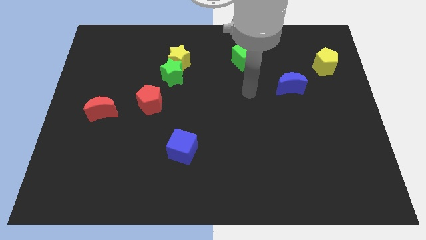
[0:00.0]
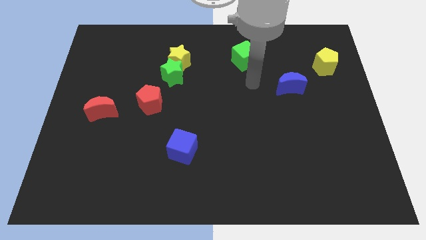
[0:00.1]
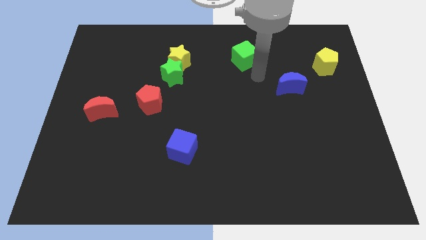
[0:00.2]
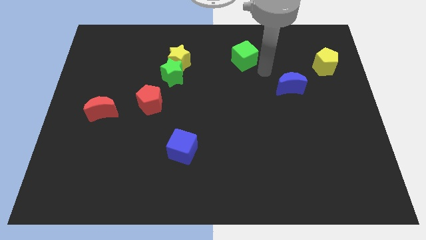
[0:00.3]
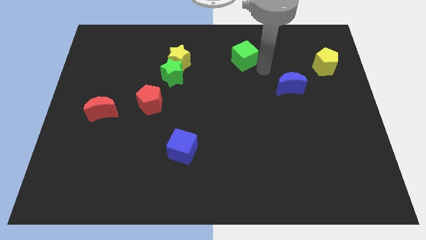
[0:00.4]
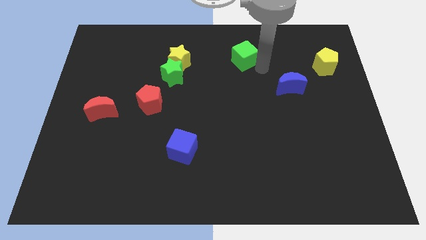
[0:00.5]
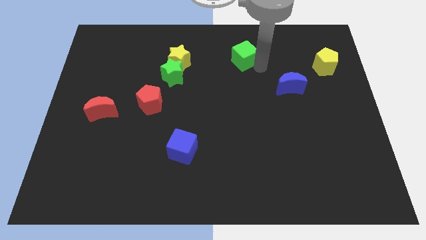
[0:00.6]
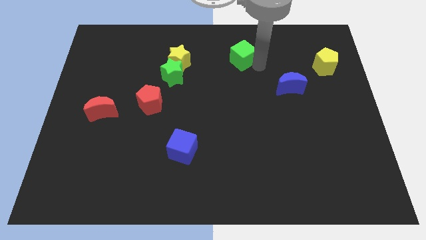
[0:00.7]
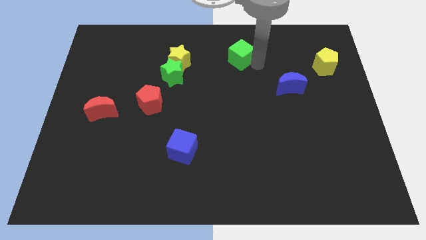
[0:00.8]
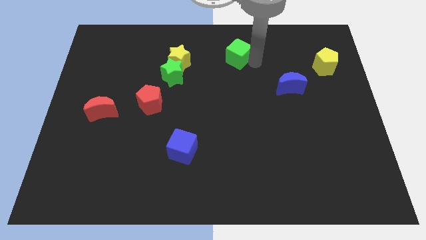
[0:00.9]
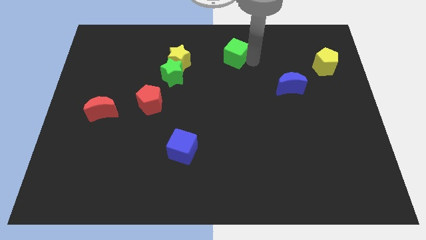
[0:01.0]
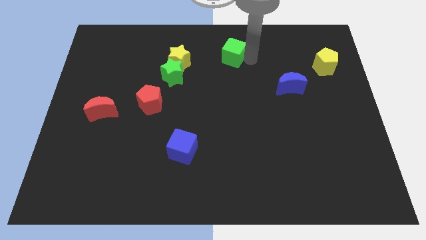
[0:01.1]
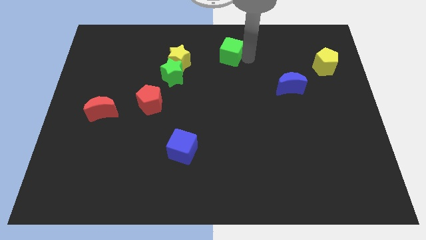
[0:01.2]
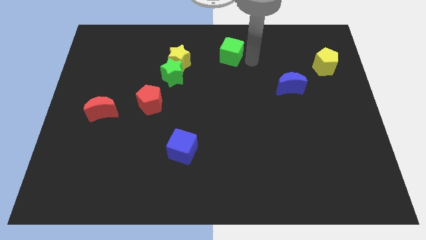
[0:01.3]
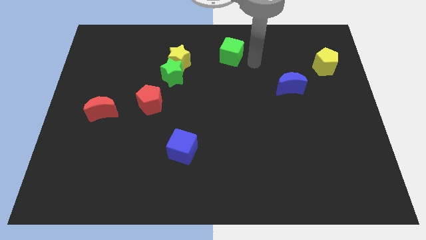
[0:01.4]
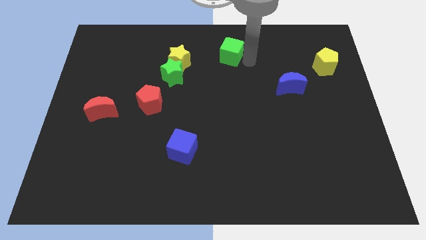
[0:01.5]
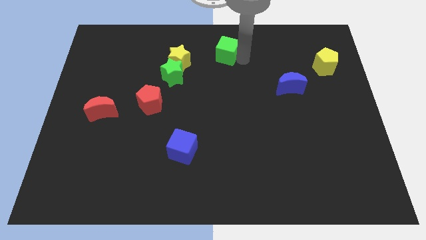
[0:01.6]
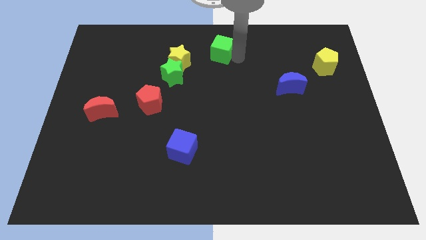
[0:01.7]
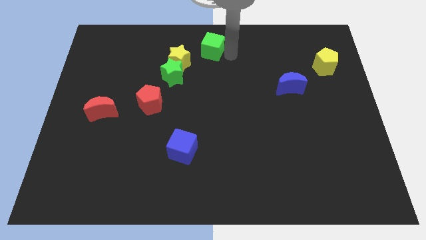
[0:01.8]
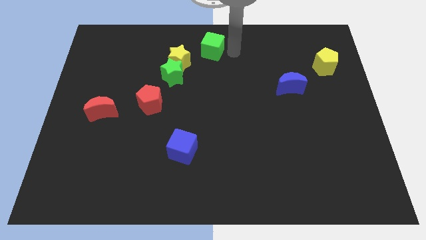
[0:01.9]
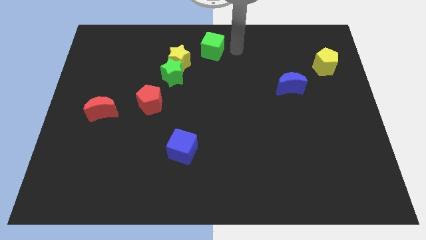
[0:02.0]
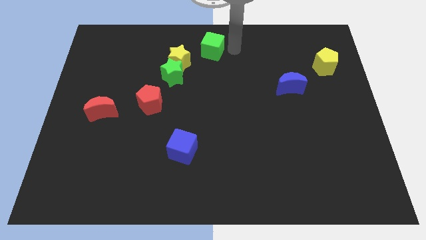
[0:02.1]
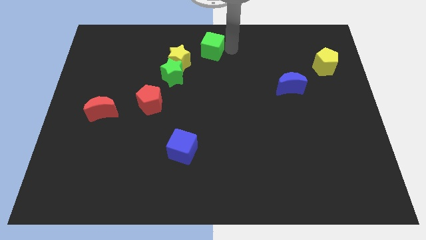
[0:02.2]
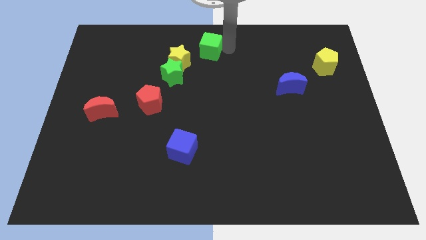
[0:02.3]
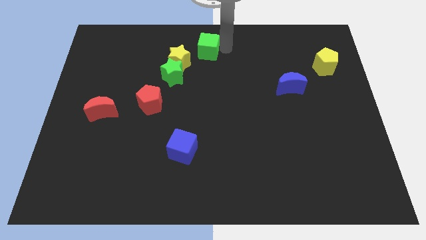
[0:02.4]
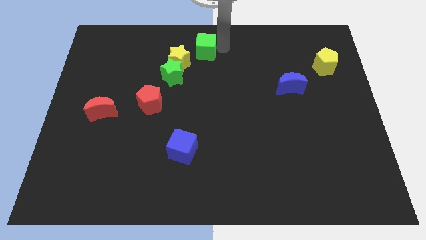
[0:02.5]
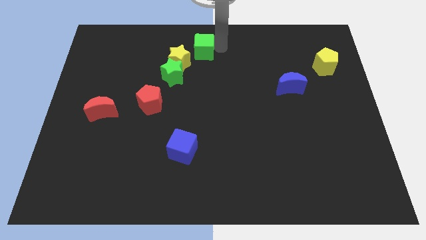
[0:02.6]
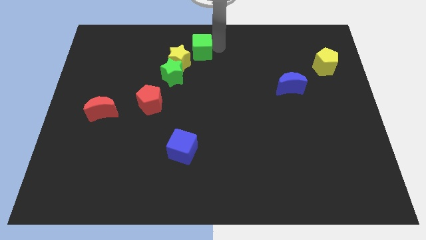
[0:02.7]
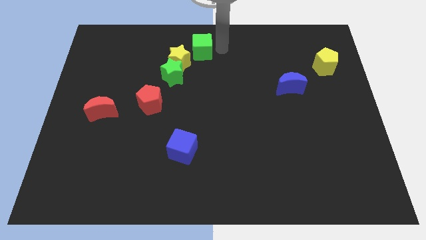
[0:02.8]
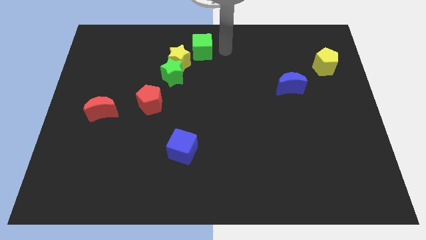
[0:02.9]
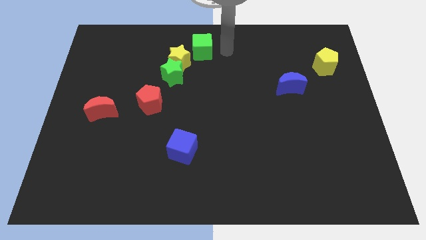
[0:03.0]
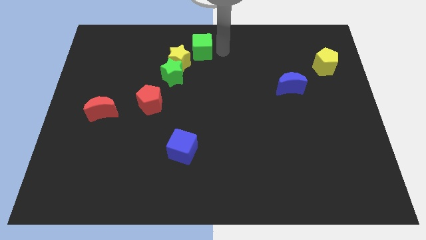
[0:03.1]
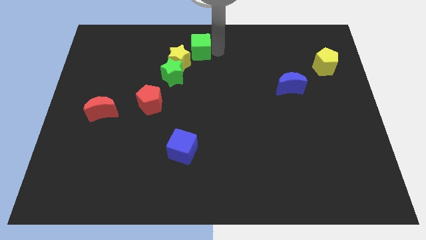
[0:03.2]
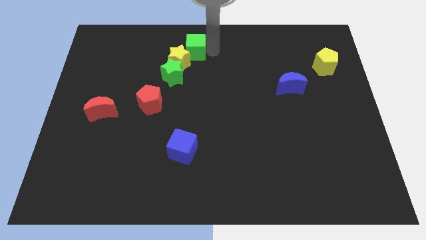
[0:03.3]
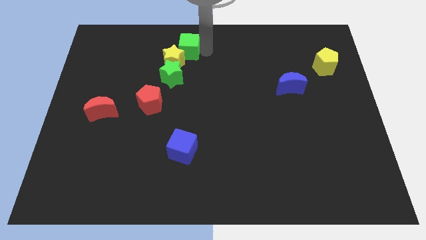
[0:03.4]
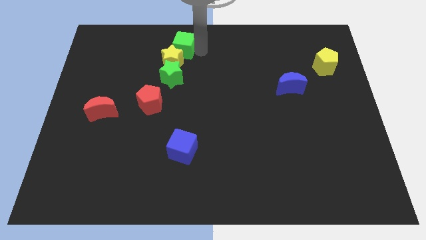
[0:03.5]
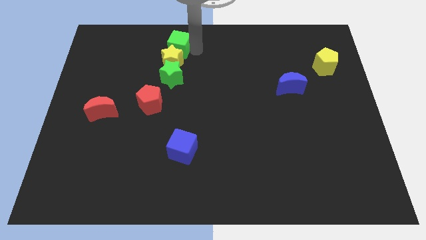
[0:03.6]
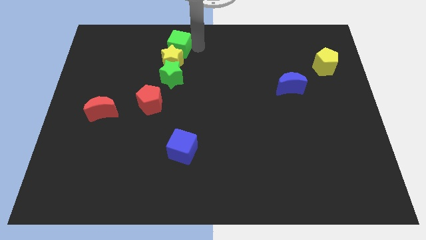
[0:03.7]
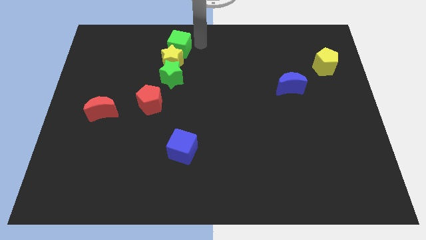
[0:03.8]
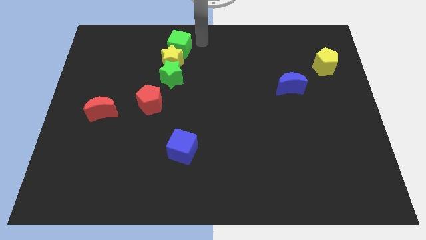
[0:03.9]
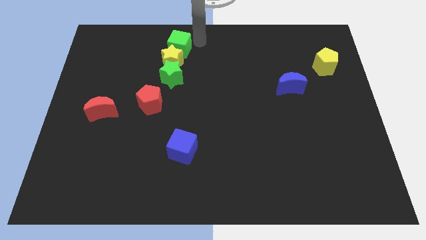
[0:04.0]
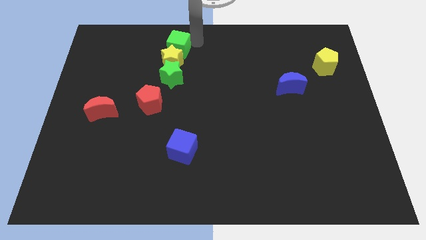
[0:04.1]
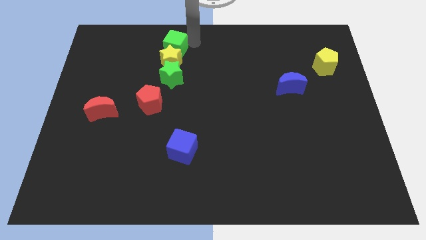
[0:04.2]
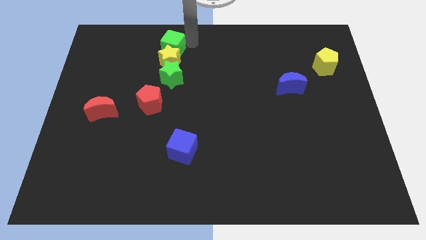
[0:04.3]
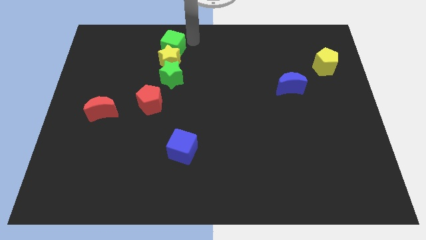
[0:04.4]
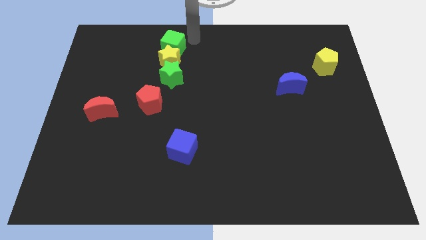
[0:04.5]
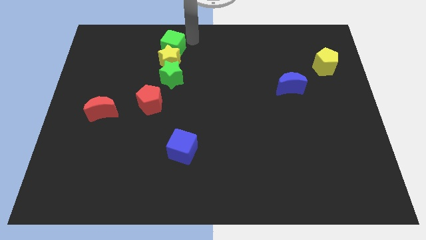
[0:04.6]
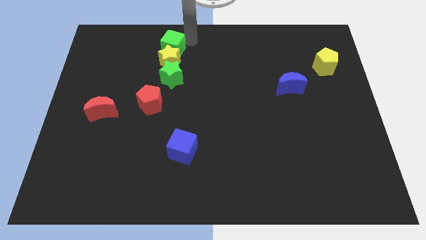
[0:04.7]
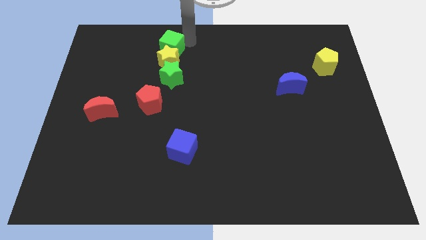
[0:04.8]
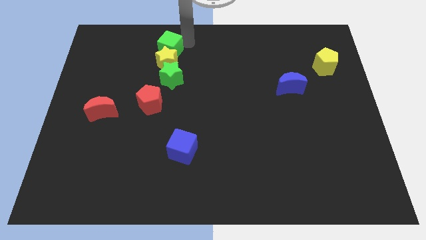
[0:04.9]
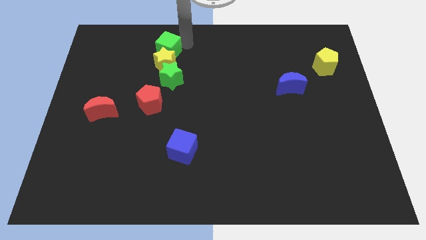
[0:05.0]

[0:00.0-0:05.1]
move the green cube to the left

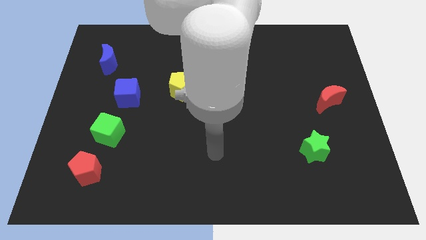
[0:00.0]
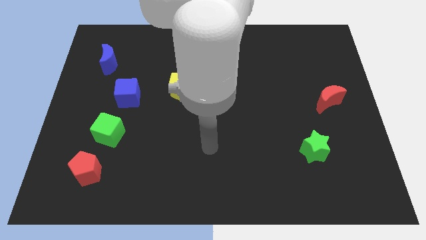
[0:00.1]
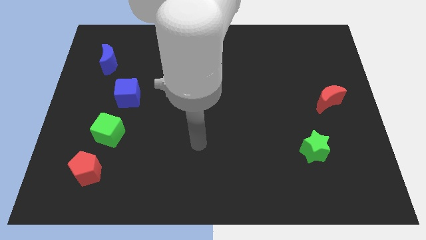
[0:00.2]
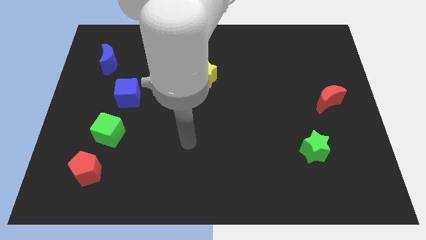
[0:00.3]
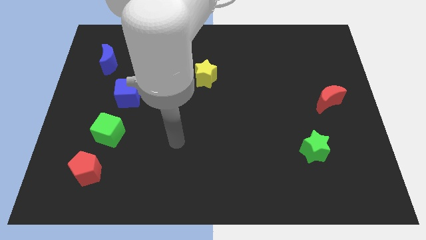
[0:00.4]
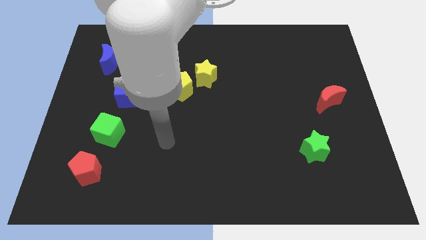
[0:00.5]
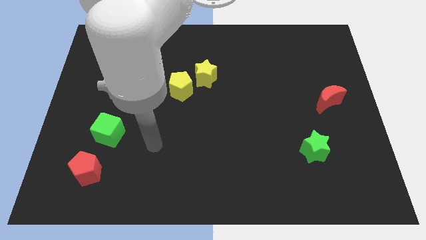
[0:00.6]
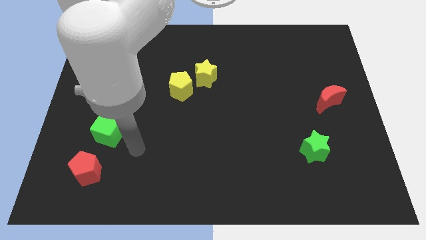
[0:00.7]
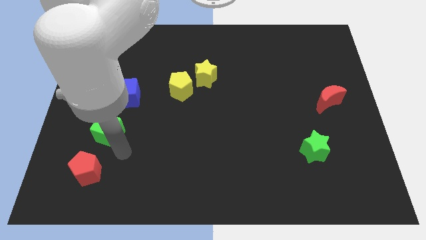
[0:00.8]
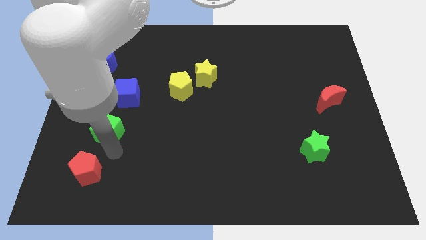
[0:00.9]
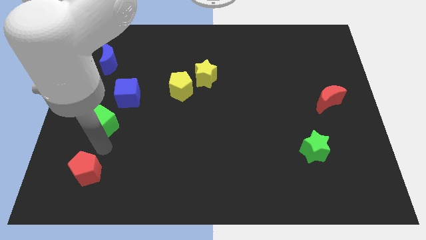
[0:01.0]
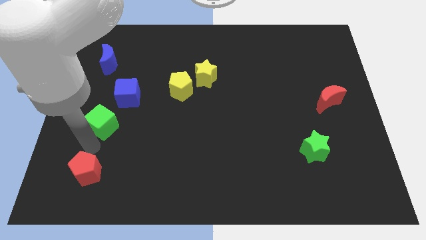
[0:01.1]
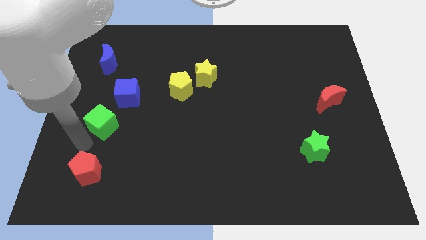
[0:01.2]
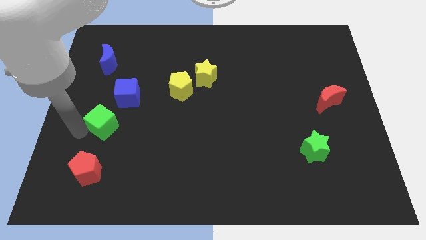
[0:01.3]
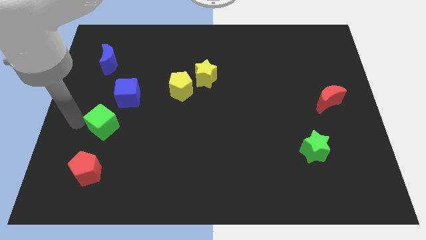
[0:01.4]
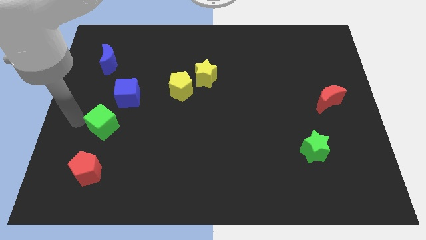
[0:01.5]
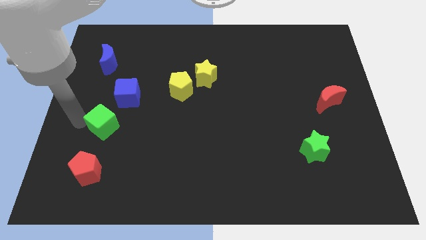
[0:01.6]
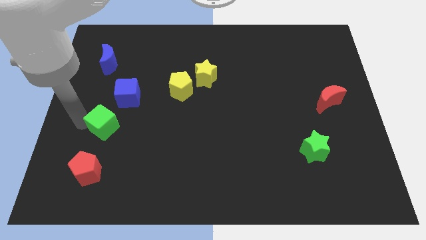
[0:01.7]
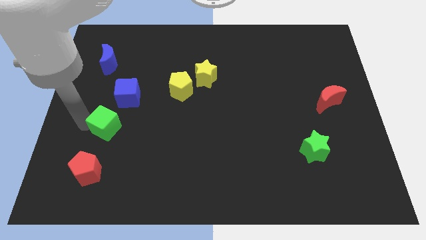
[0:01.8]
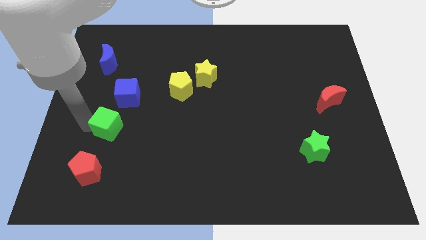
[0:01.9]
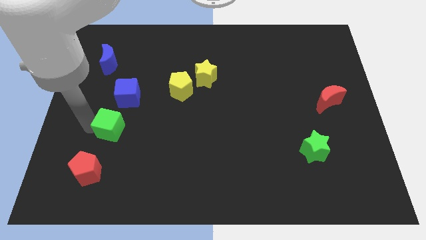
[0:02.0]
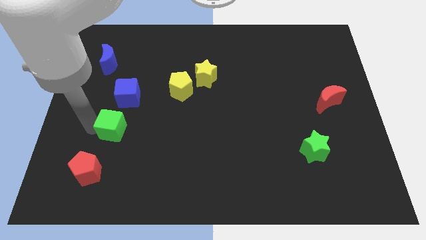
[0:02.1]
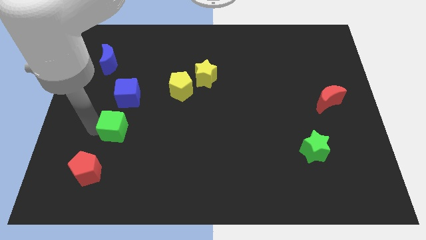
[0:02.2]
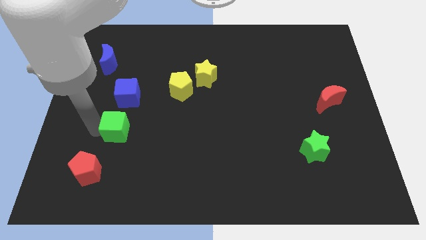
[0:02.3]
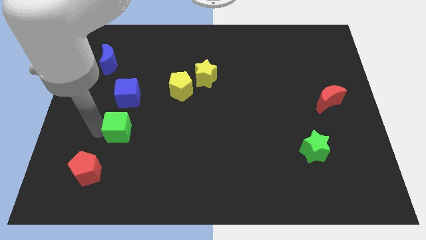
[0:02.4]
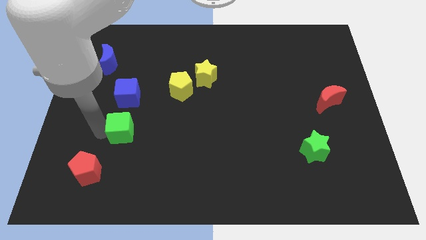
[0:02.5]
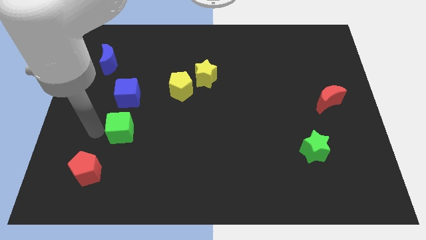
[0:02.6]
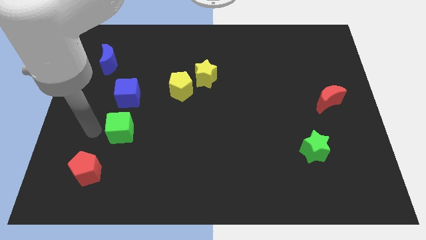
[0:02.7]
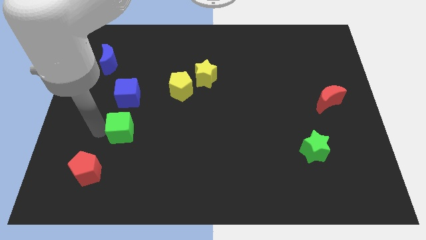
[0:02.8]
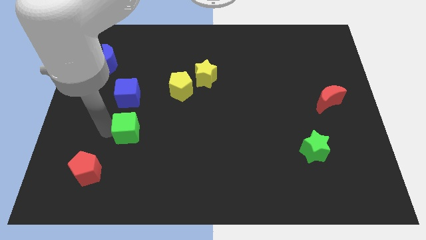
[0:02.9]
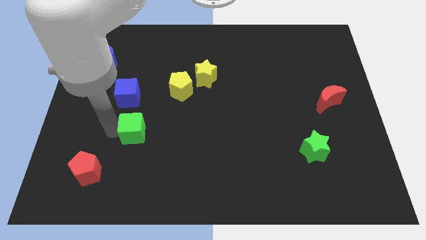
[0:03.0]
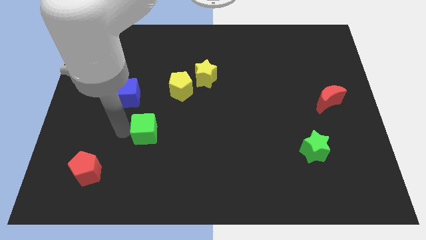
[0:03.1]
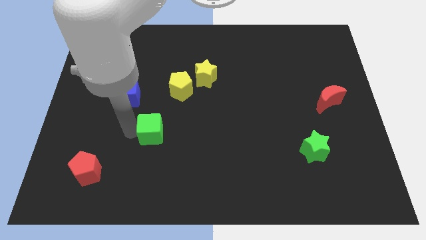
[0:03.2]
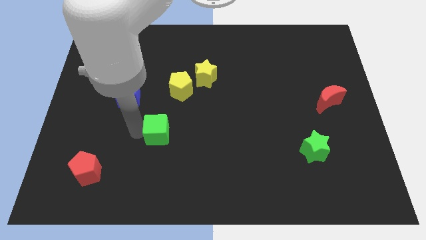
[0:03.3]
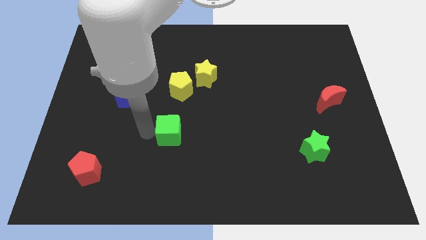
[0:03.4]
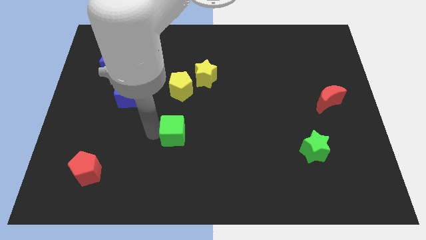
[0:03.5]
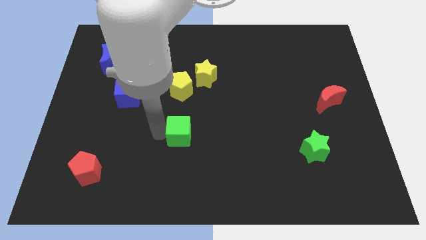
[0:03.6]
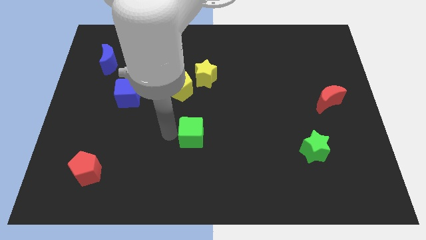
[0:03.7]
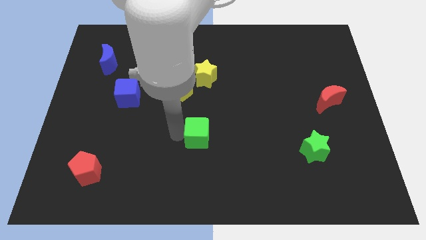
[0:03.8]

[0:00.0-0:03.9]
slide the green cube to the right
